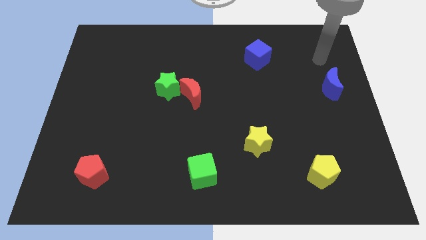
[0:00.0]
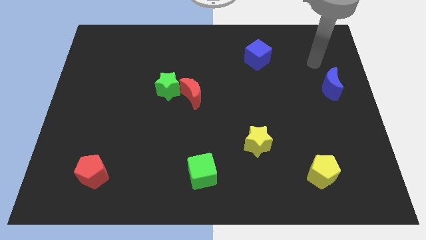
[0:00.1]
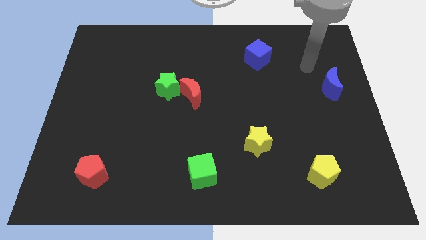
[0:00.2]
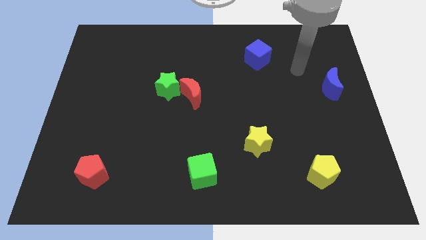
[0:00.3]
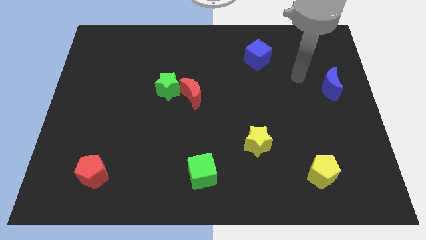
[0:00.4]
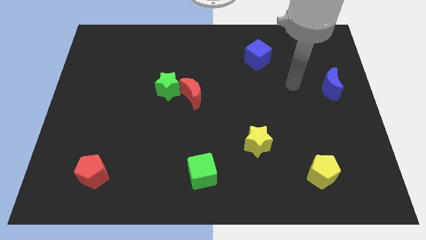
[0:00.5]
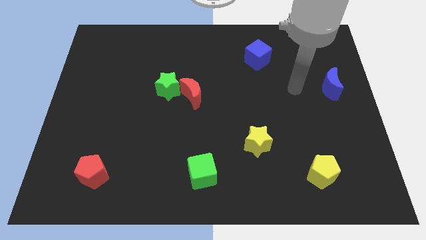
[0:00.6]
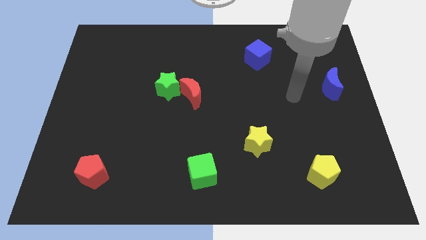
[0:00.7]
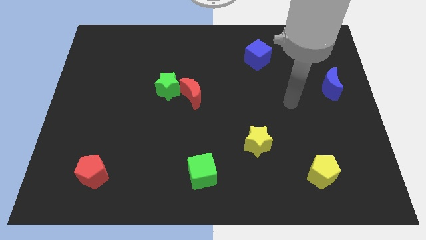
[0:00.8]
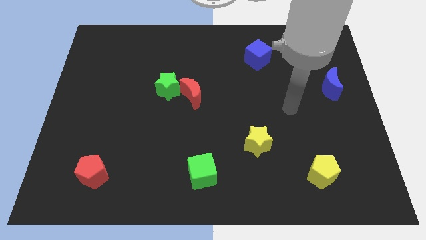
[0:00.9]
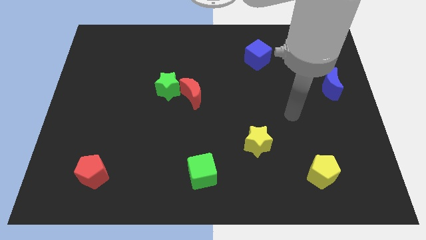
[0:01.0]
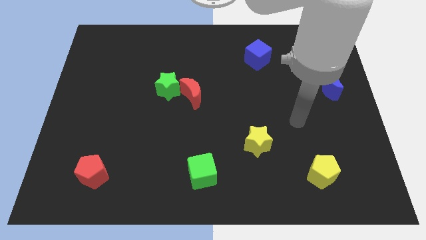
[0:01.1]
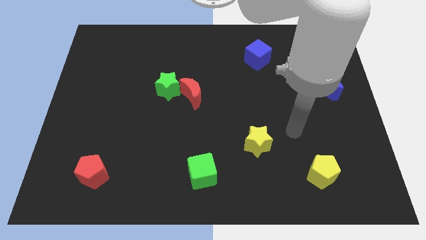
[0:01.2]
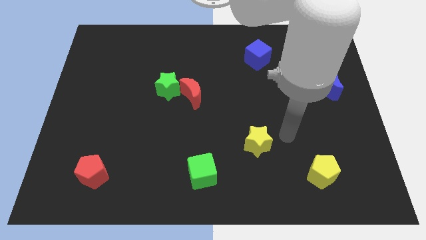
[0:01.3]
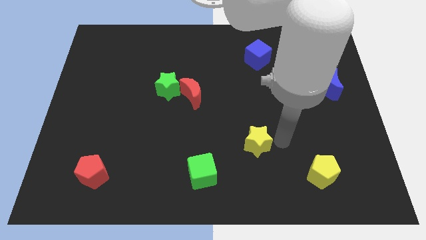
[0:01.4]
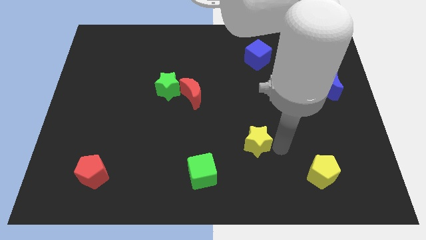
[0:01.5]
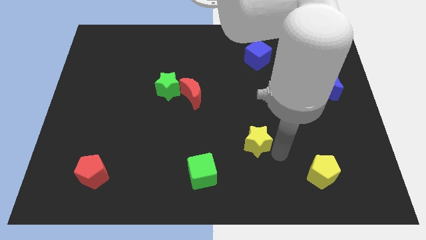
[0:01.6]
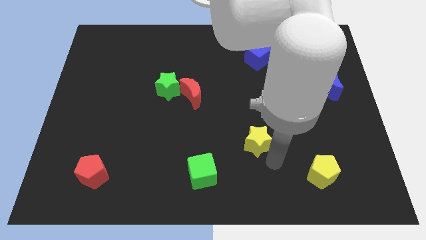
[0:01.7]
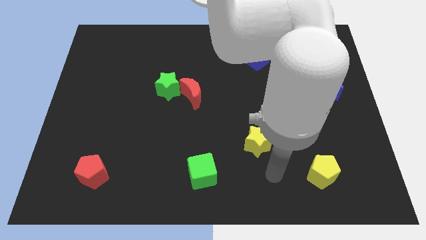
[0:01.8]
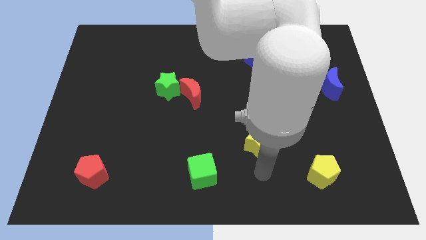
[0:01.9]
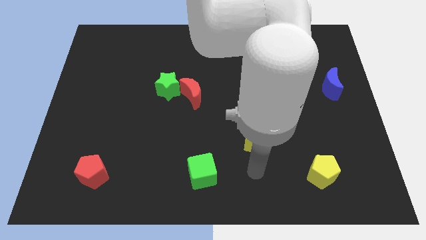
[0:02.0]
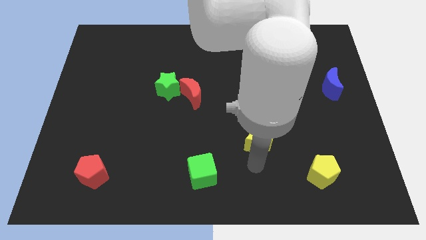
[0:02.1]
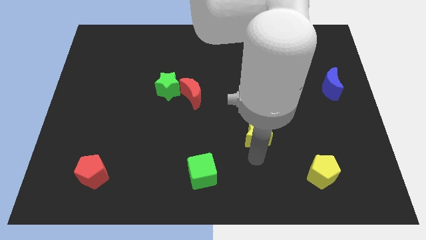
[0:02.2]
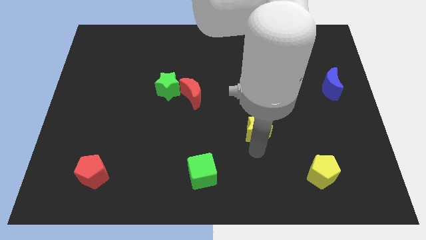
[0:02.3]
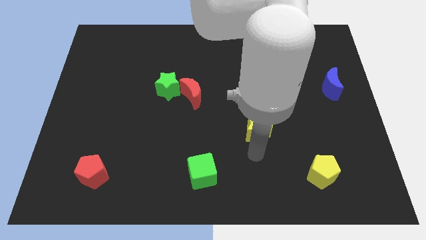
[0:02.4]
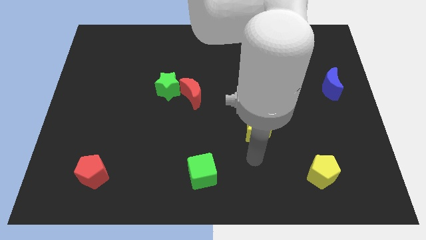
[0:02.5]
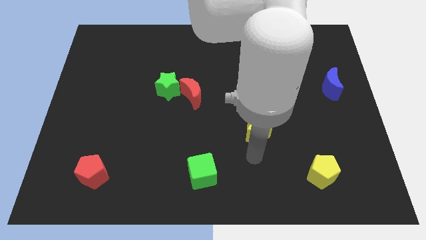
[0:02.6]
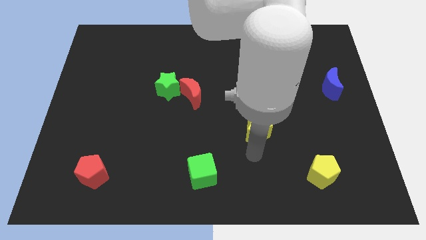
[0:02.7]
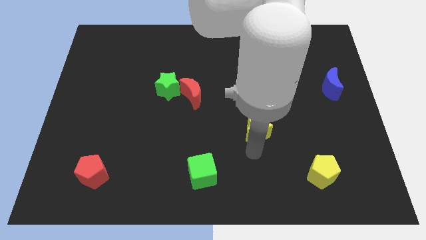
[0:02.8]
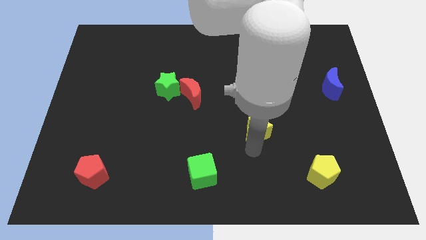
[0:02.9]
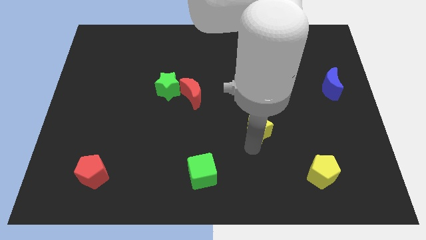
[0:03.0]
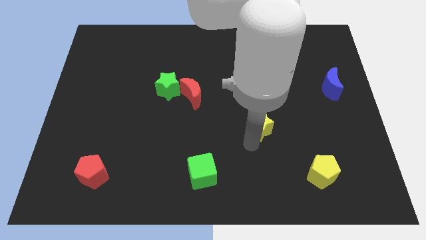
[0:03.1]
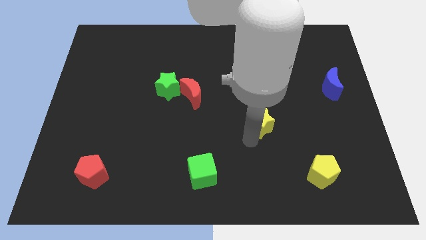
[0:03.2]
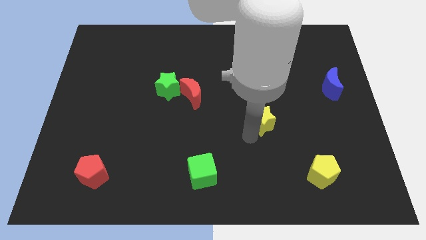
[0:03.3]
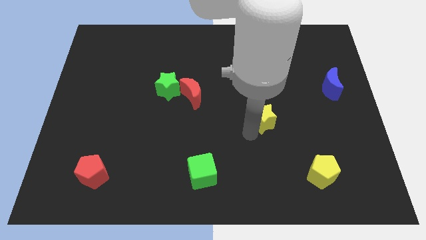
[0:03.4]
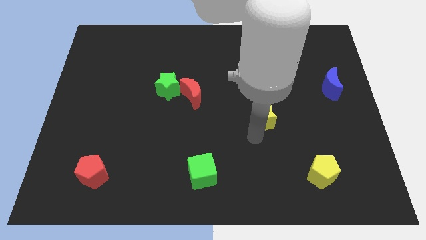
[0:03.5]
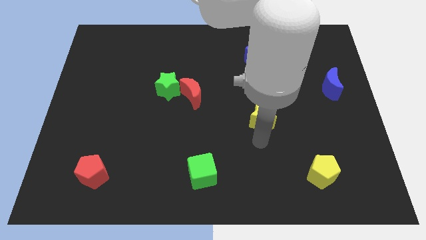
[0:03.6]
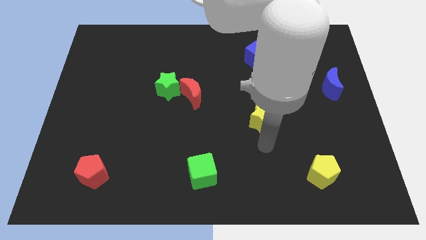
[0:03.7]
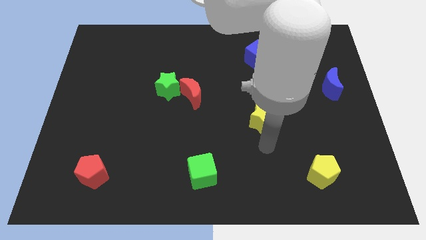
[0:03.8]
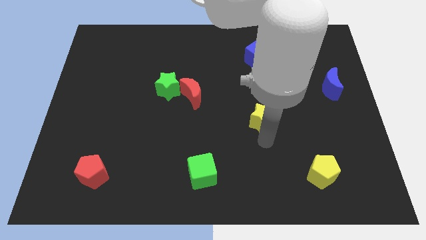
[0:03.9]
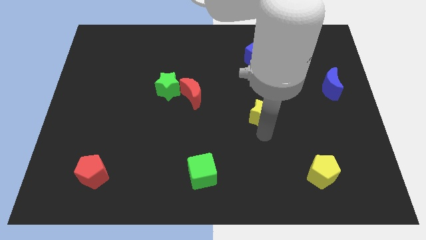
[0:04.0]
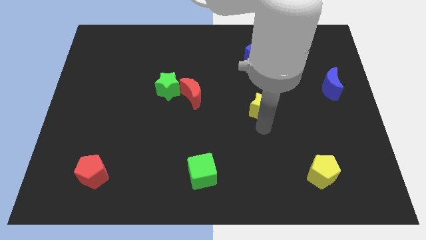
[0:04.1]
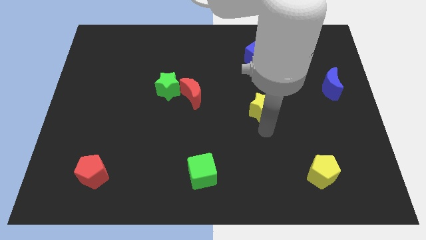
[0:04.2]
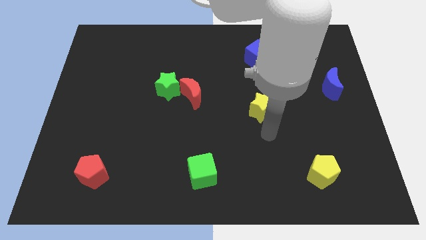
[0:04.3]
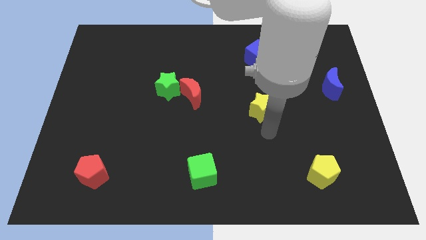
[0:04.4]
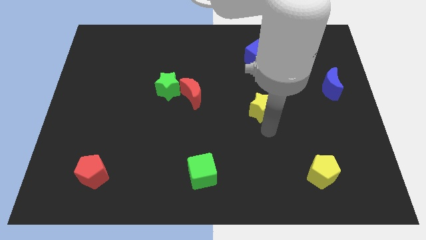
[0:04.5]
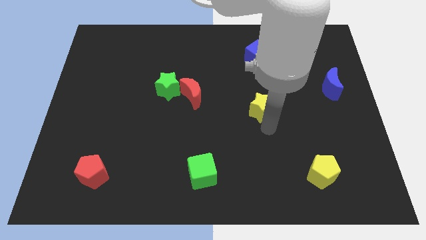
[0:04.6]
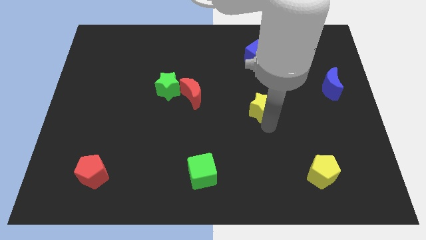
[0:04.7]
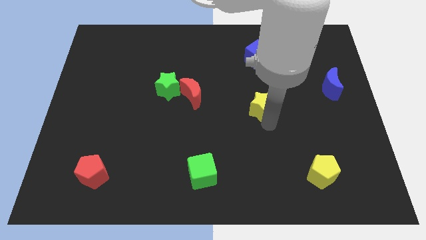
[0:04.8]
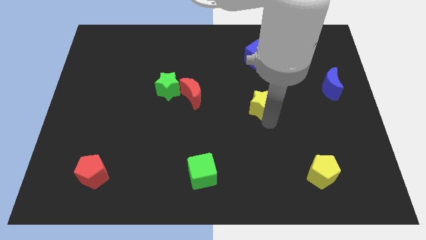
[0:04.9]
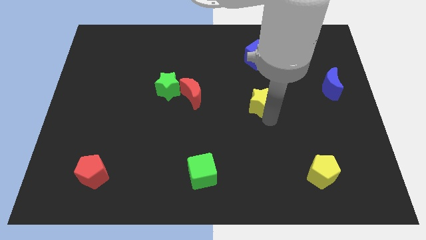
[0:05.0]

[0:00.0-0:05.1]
push the yellow star to the bottom side of the blue cube

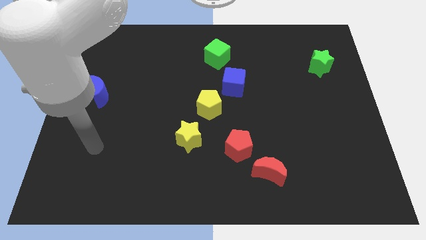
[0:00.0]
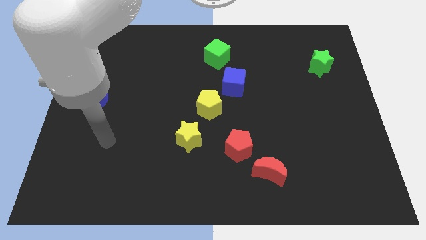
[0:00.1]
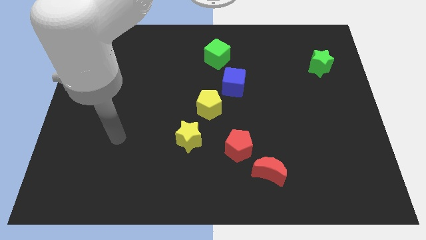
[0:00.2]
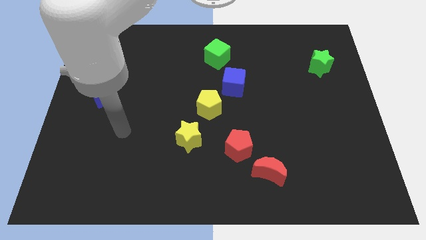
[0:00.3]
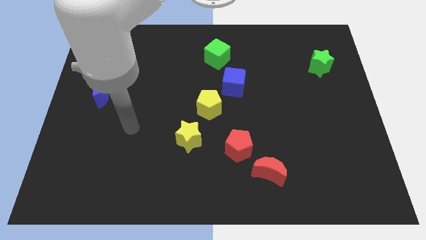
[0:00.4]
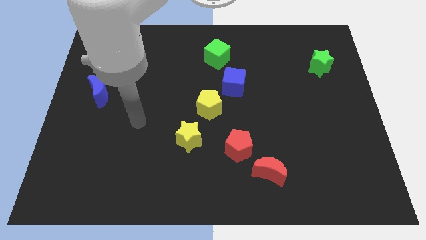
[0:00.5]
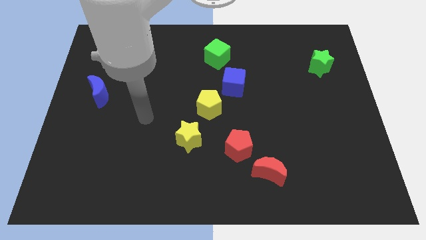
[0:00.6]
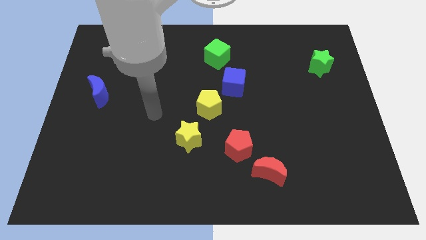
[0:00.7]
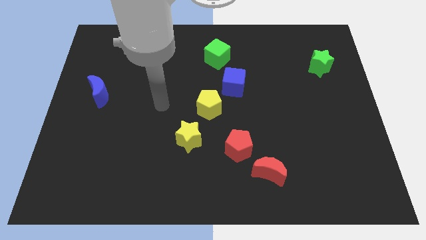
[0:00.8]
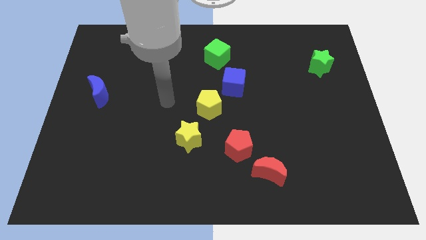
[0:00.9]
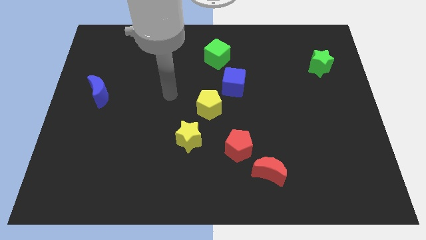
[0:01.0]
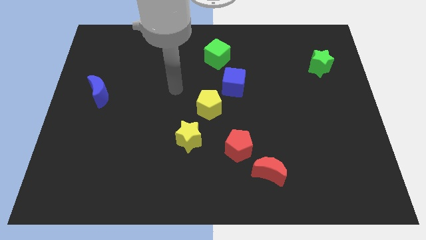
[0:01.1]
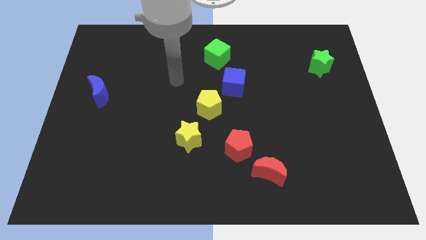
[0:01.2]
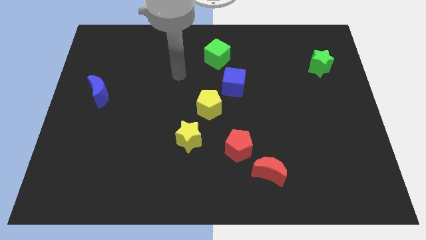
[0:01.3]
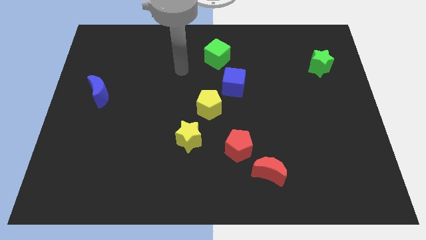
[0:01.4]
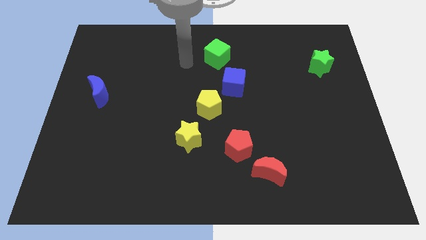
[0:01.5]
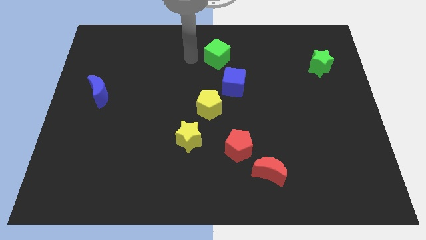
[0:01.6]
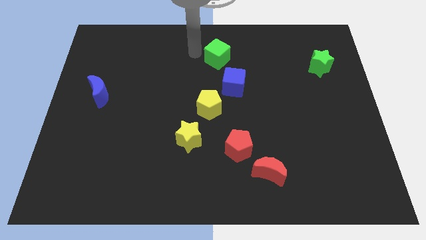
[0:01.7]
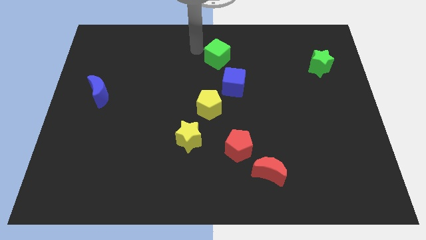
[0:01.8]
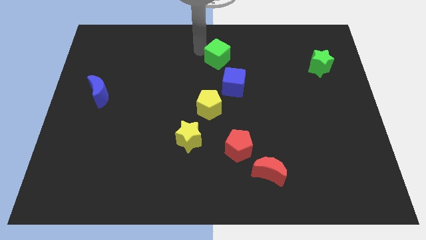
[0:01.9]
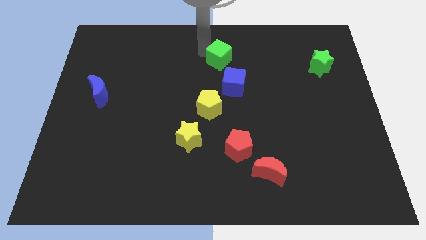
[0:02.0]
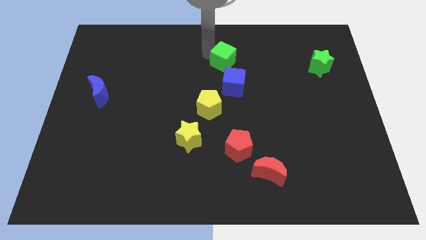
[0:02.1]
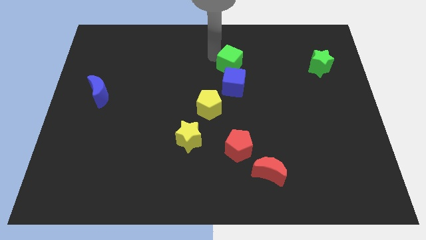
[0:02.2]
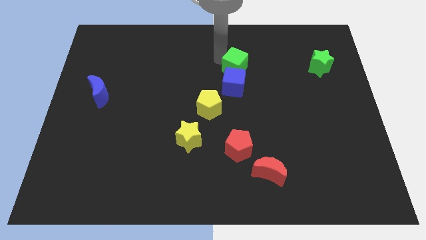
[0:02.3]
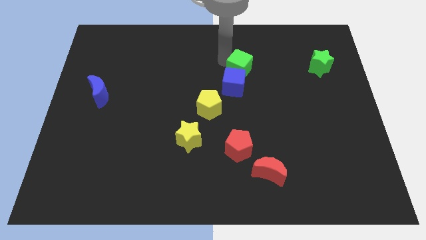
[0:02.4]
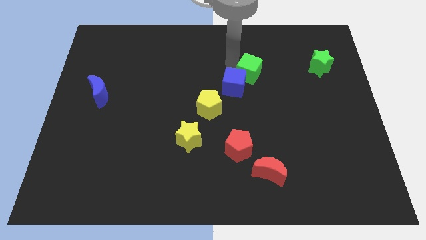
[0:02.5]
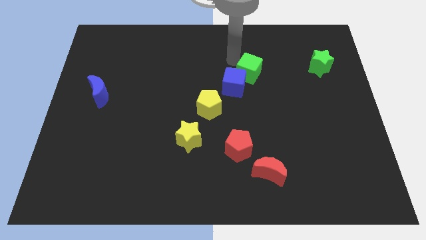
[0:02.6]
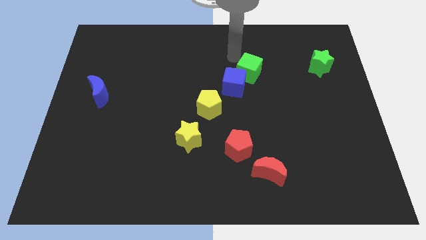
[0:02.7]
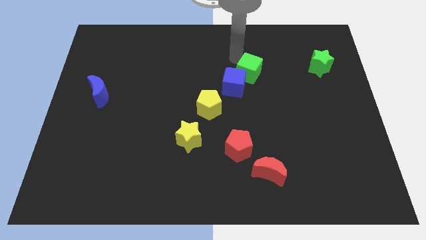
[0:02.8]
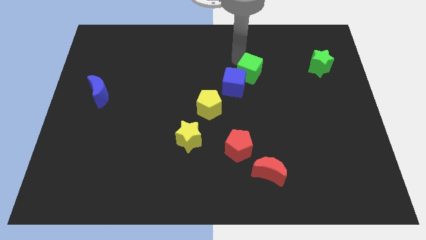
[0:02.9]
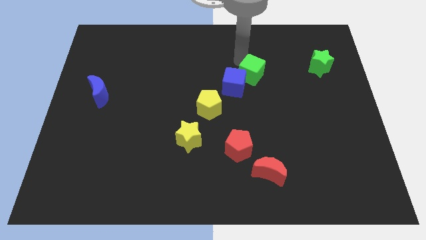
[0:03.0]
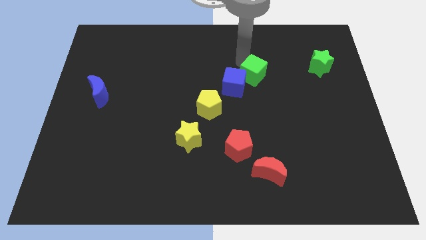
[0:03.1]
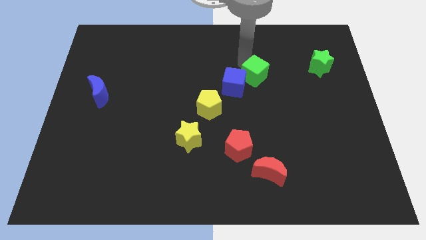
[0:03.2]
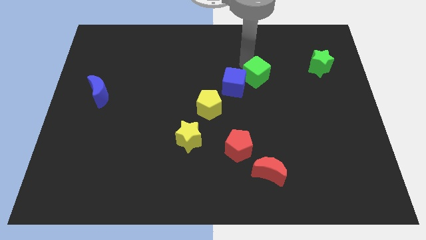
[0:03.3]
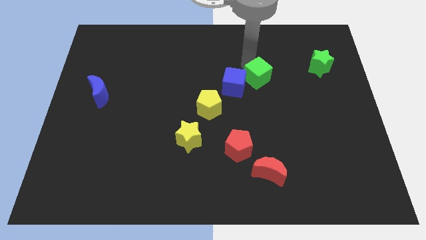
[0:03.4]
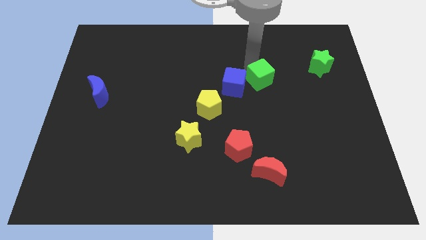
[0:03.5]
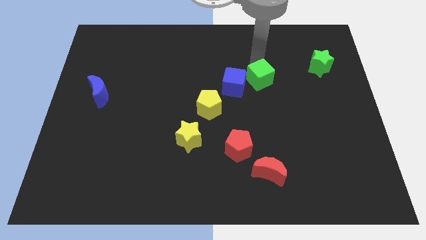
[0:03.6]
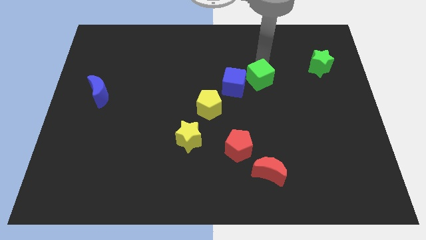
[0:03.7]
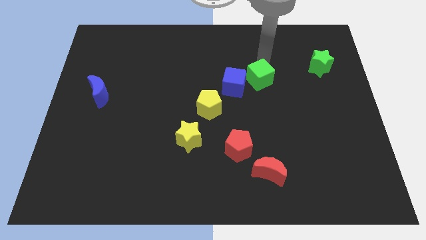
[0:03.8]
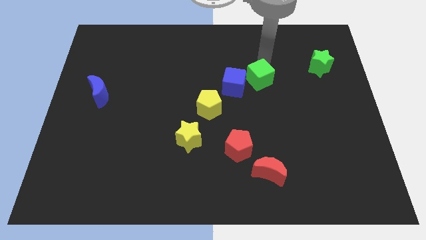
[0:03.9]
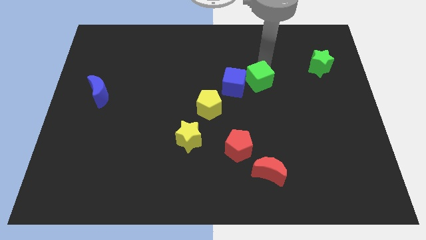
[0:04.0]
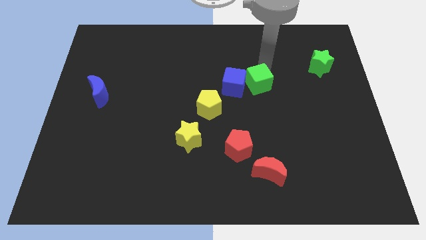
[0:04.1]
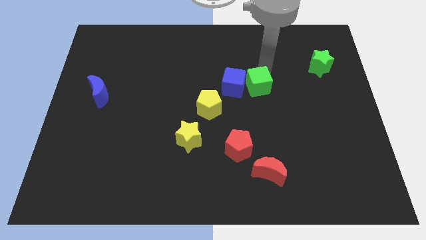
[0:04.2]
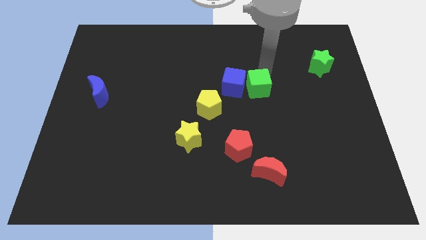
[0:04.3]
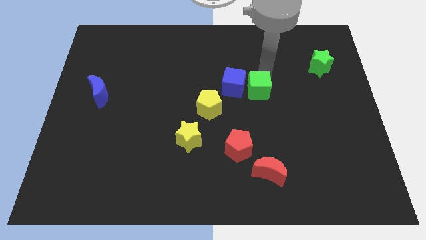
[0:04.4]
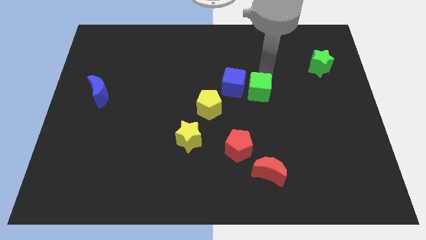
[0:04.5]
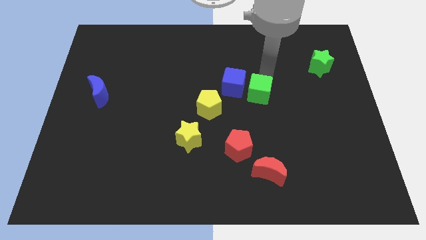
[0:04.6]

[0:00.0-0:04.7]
push the green cube to the right of the yellow pentagon
